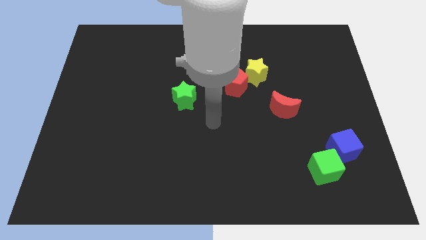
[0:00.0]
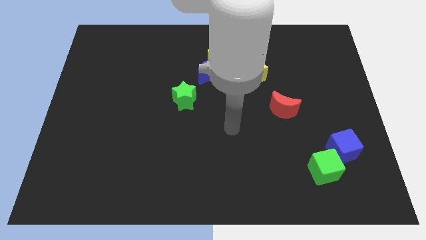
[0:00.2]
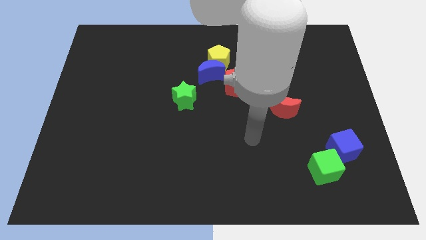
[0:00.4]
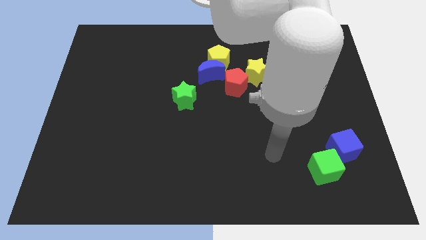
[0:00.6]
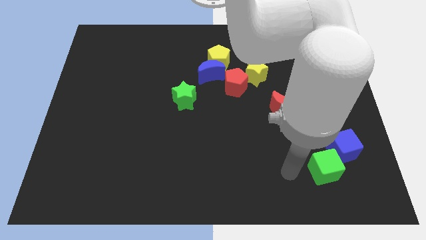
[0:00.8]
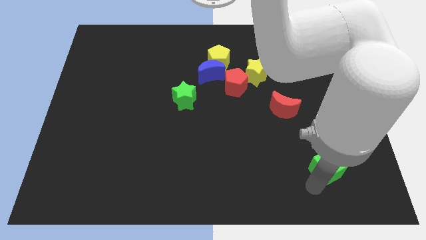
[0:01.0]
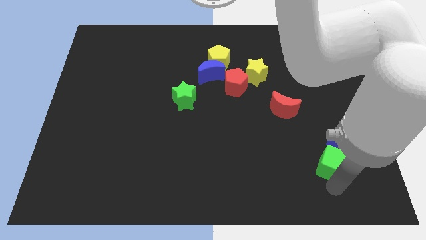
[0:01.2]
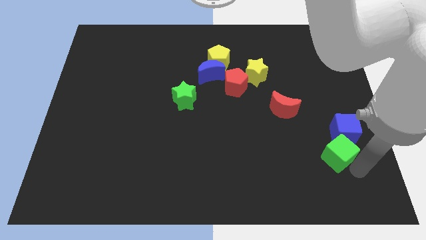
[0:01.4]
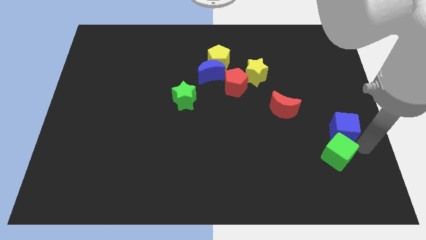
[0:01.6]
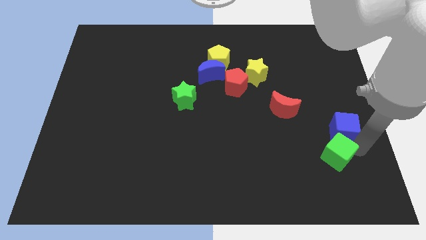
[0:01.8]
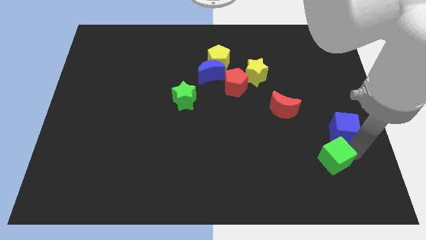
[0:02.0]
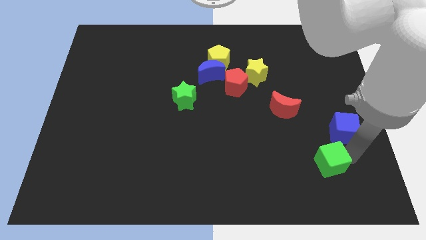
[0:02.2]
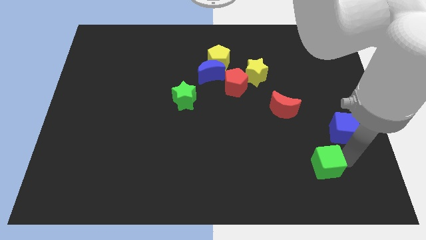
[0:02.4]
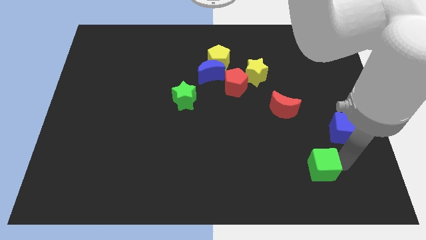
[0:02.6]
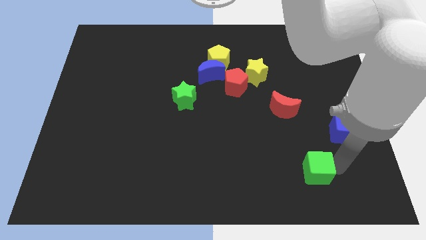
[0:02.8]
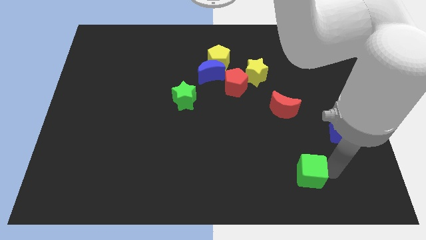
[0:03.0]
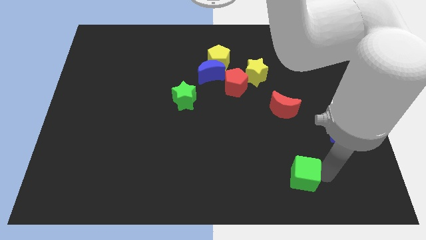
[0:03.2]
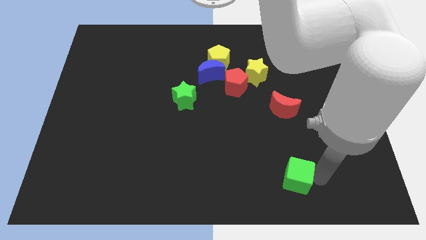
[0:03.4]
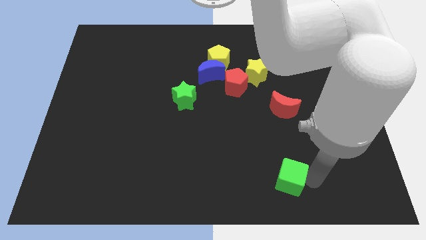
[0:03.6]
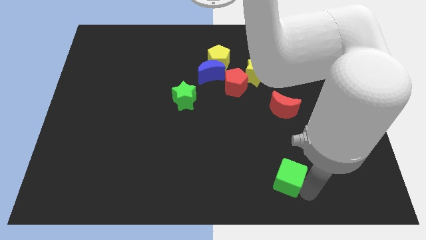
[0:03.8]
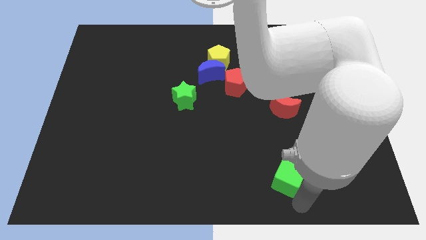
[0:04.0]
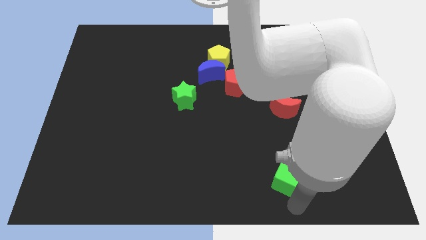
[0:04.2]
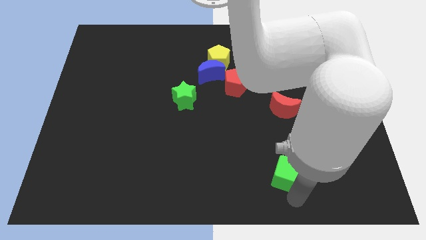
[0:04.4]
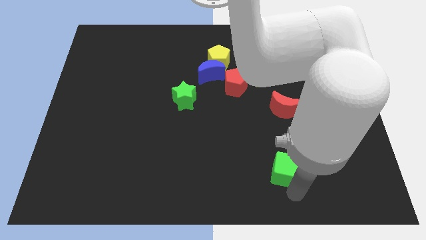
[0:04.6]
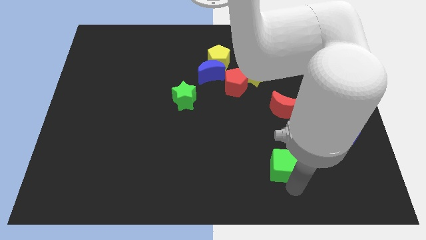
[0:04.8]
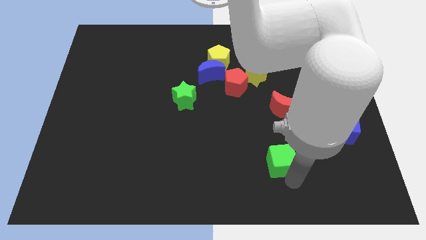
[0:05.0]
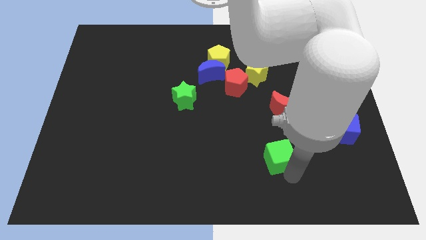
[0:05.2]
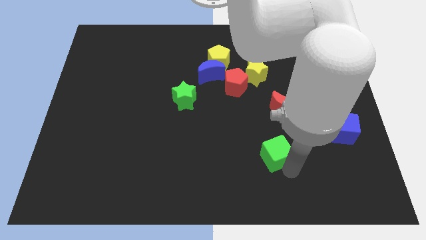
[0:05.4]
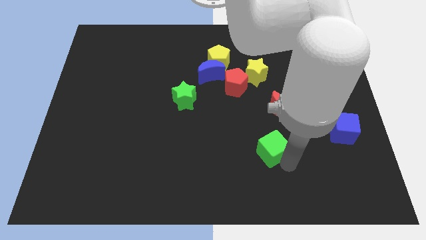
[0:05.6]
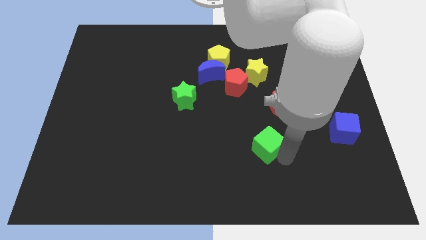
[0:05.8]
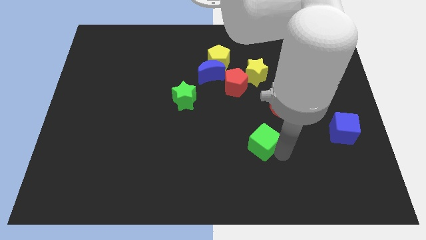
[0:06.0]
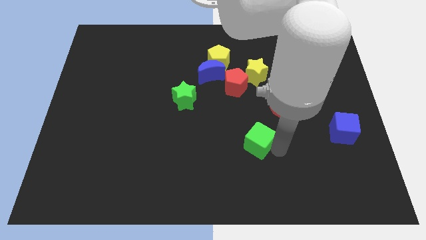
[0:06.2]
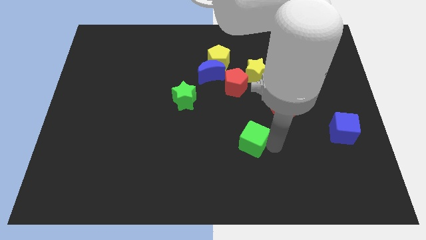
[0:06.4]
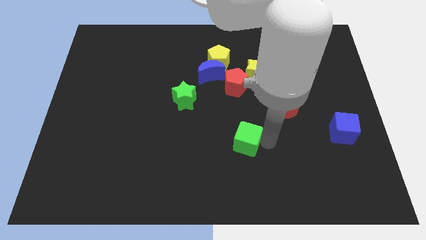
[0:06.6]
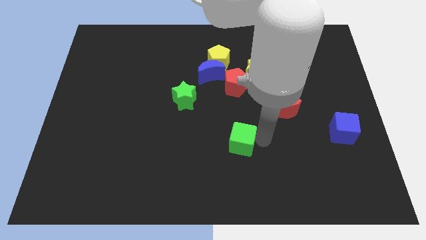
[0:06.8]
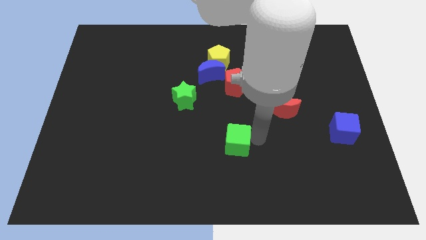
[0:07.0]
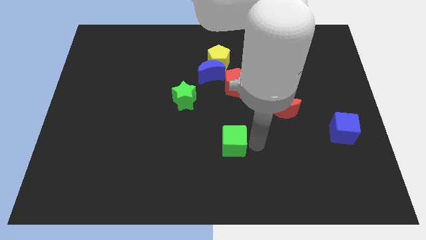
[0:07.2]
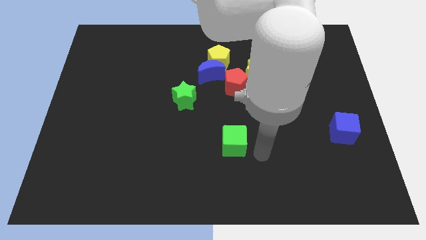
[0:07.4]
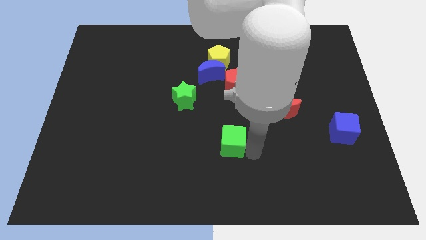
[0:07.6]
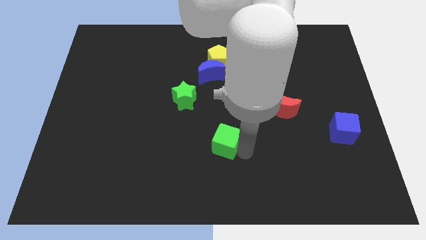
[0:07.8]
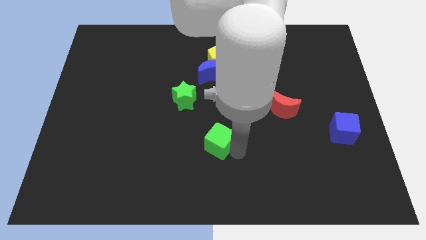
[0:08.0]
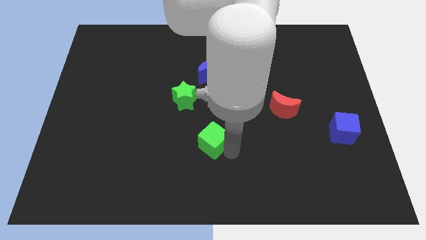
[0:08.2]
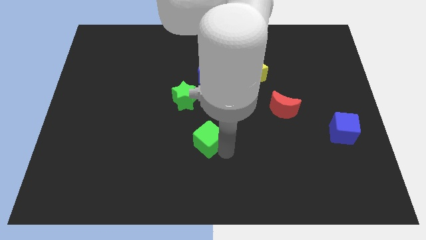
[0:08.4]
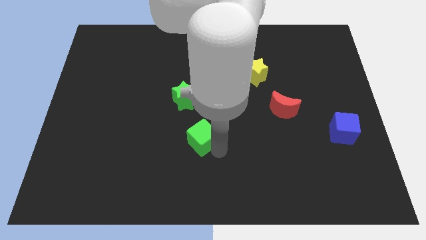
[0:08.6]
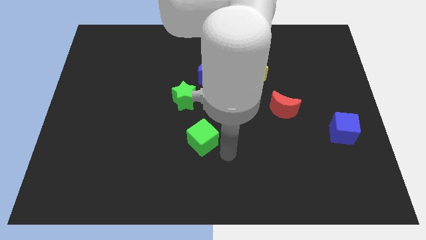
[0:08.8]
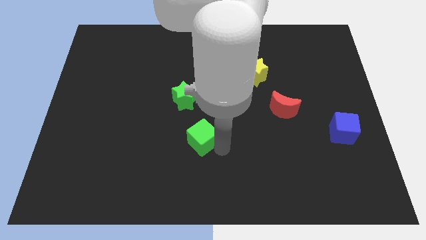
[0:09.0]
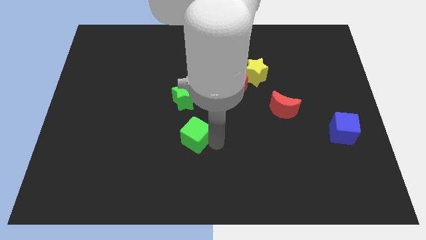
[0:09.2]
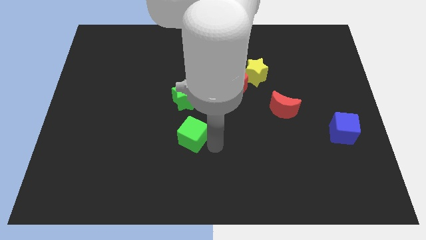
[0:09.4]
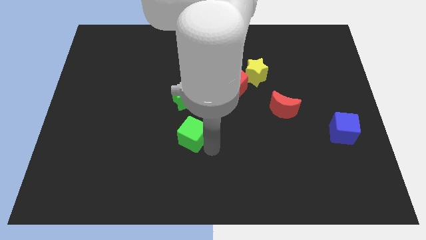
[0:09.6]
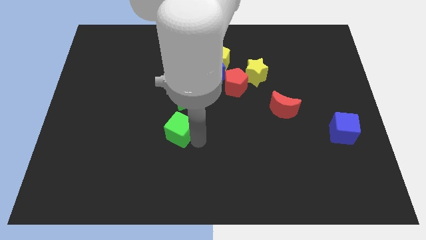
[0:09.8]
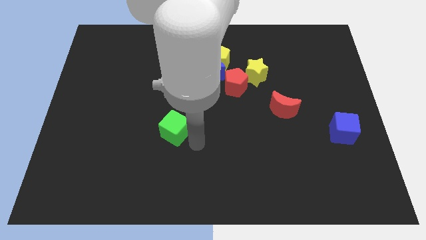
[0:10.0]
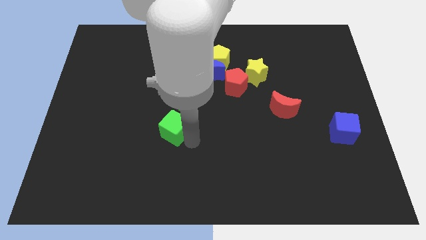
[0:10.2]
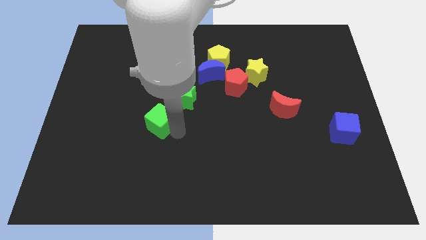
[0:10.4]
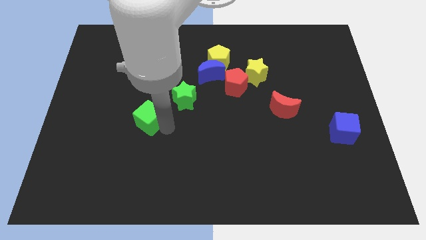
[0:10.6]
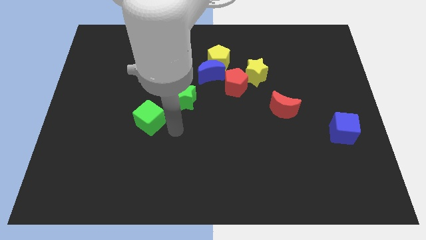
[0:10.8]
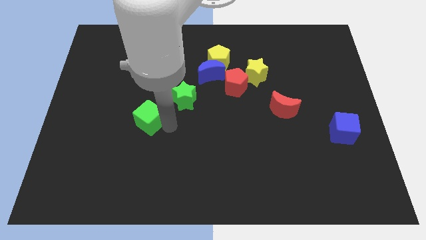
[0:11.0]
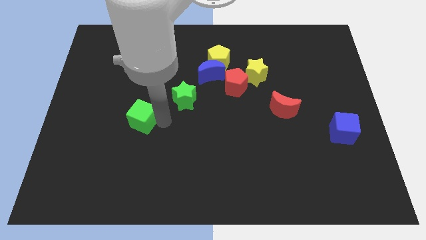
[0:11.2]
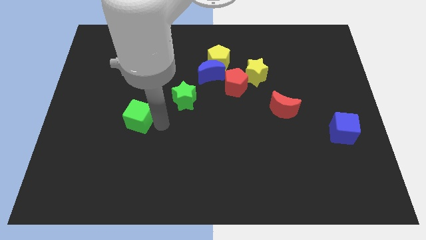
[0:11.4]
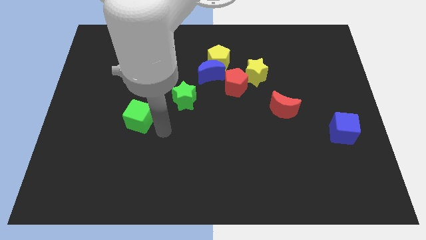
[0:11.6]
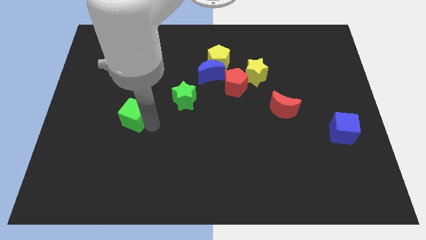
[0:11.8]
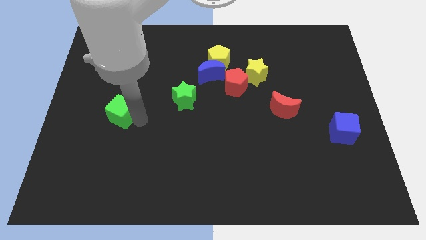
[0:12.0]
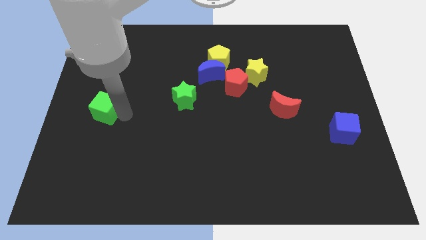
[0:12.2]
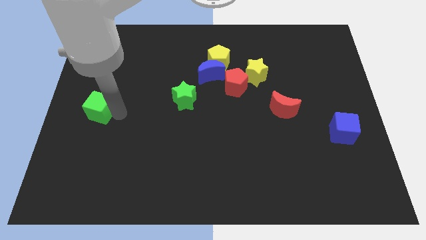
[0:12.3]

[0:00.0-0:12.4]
move the green cube to the left side of the board

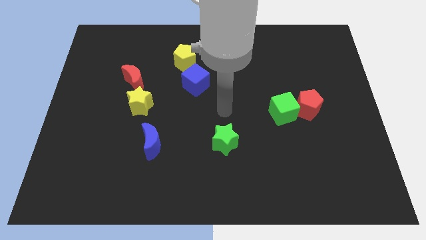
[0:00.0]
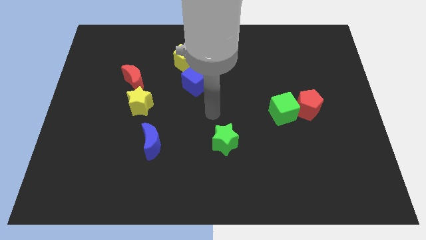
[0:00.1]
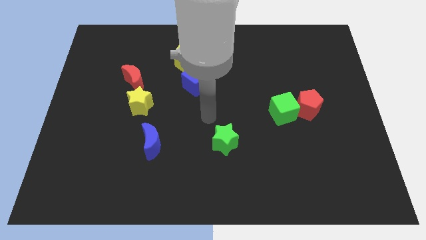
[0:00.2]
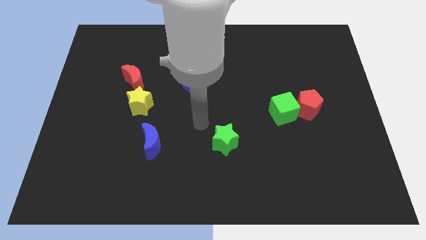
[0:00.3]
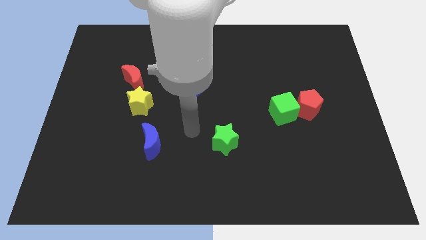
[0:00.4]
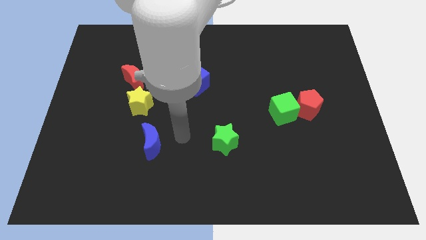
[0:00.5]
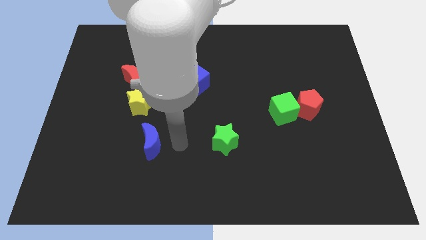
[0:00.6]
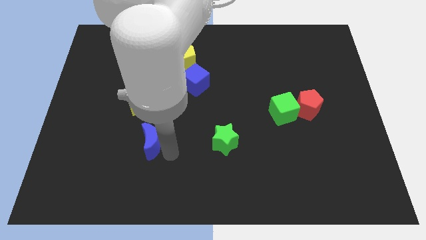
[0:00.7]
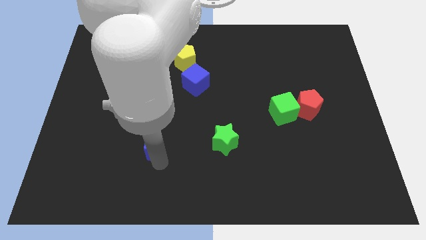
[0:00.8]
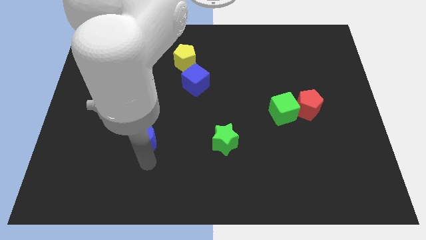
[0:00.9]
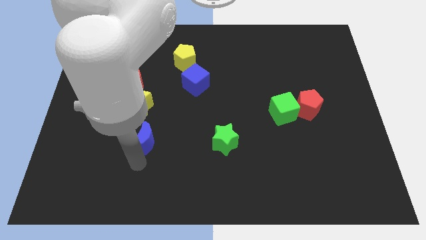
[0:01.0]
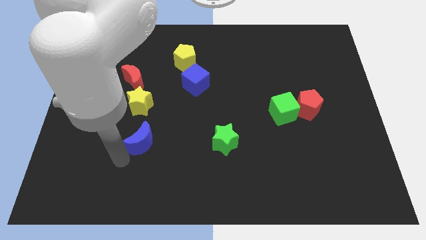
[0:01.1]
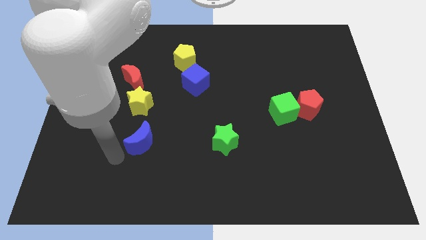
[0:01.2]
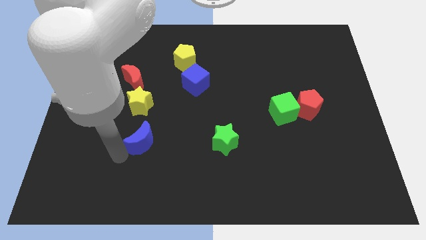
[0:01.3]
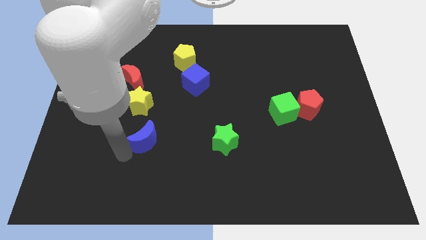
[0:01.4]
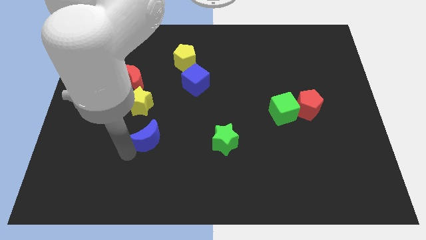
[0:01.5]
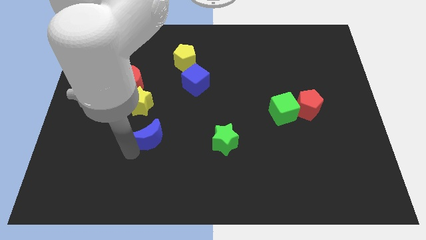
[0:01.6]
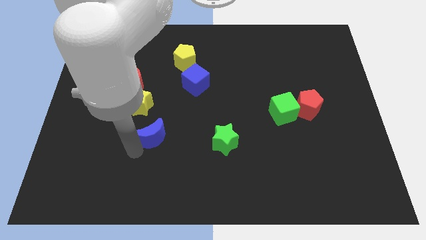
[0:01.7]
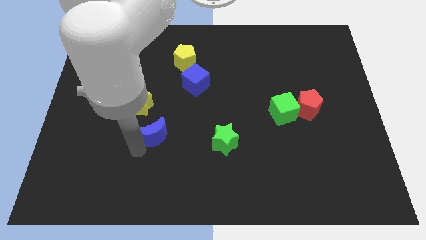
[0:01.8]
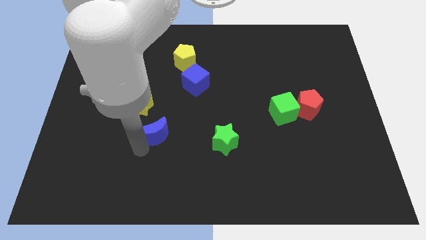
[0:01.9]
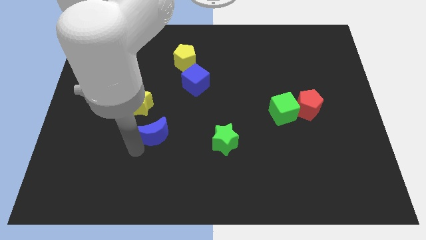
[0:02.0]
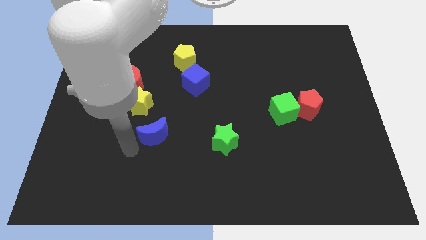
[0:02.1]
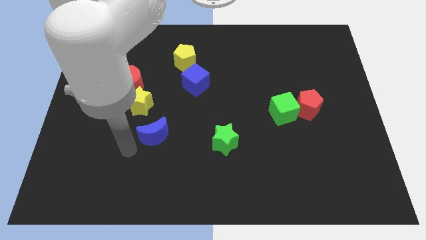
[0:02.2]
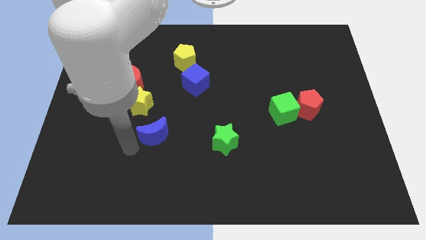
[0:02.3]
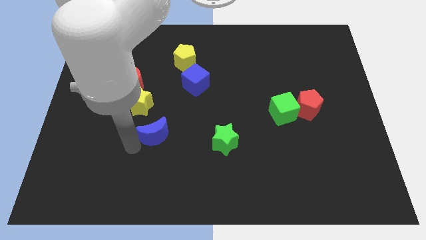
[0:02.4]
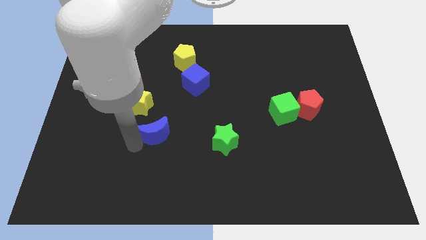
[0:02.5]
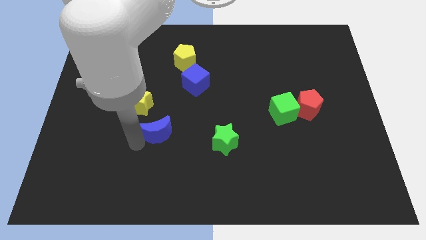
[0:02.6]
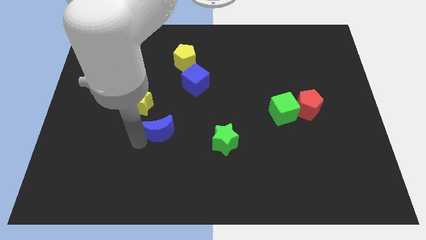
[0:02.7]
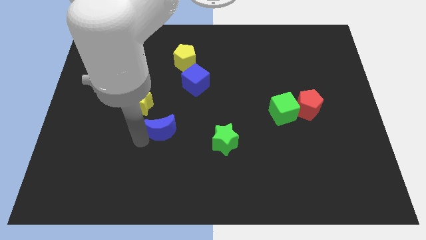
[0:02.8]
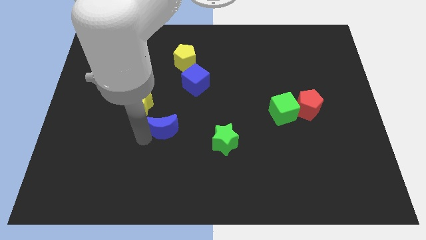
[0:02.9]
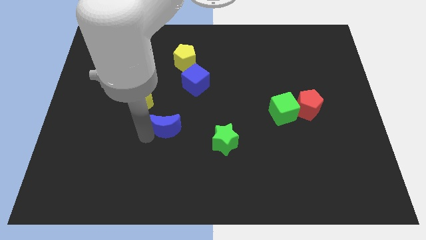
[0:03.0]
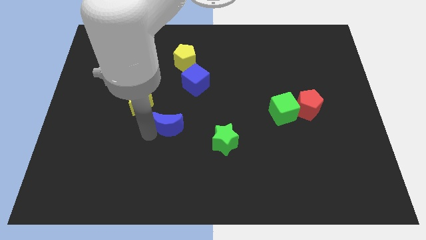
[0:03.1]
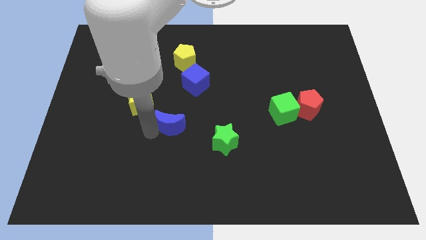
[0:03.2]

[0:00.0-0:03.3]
put the blue moon to the middle
